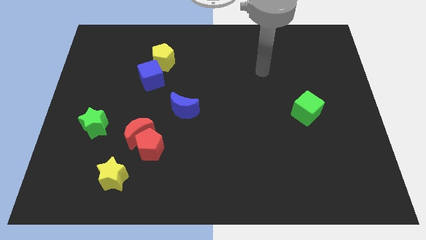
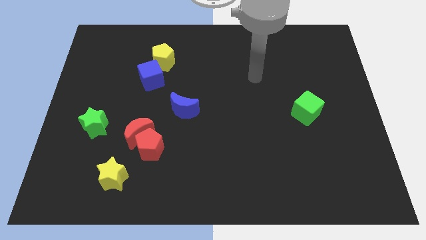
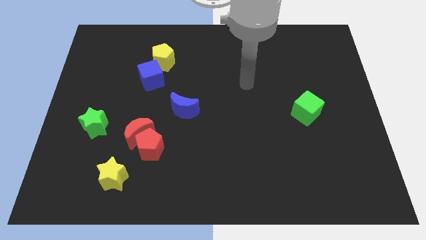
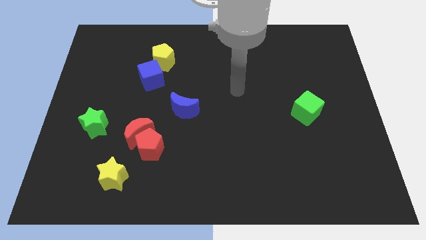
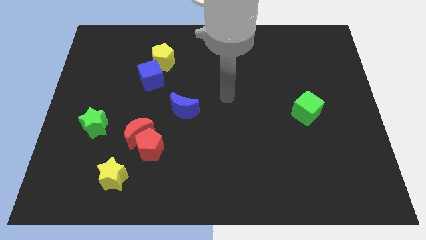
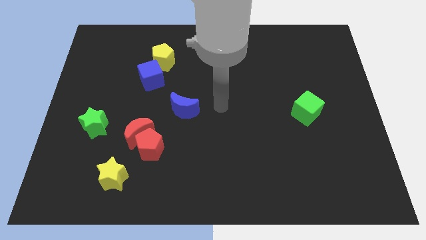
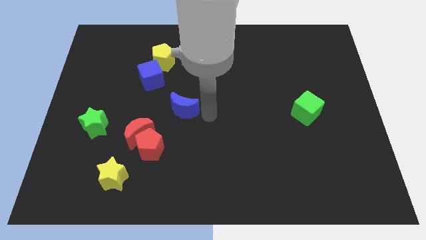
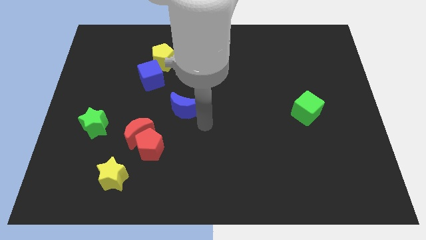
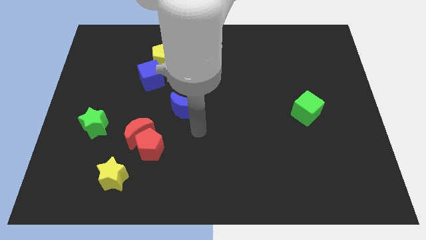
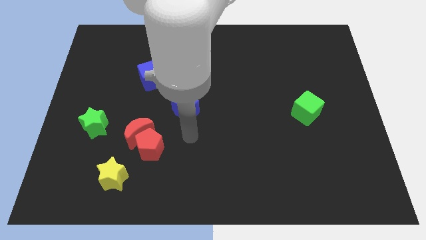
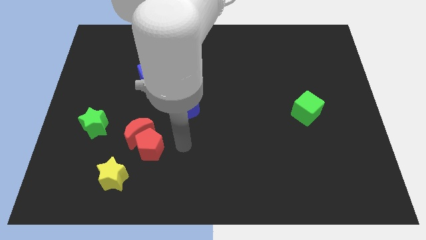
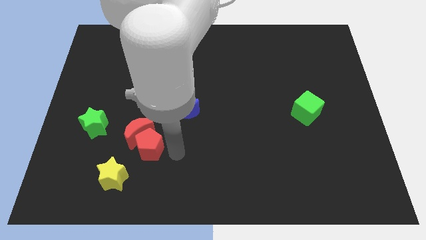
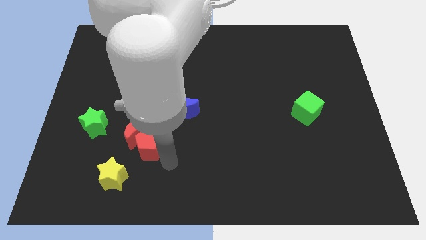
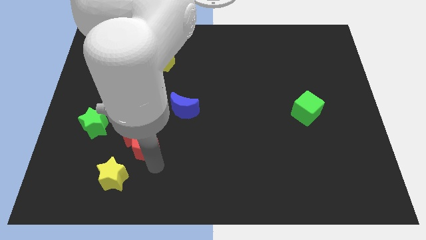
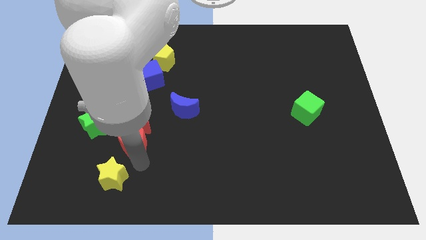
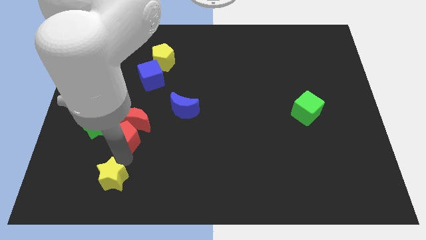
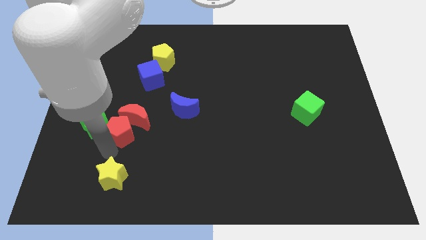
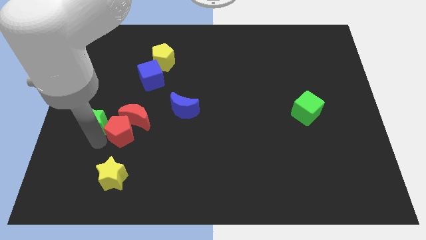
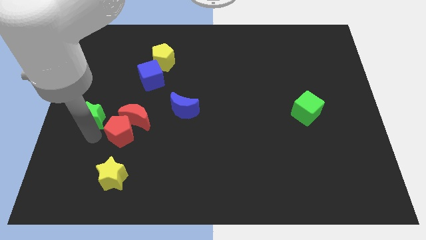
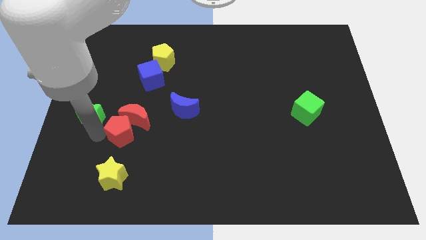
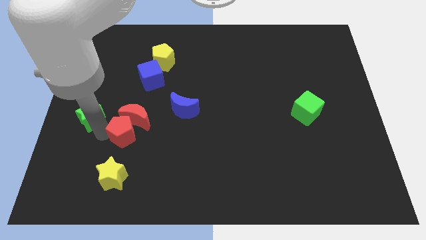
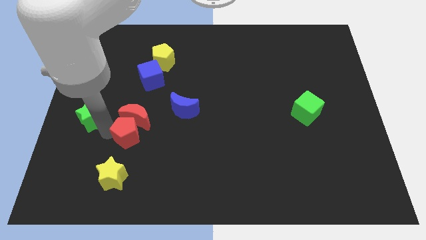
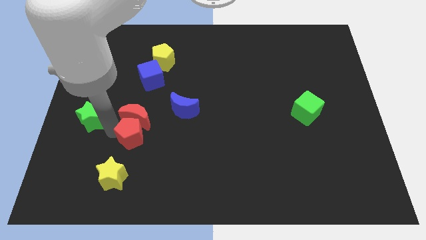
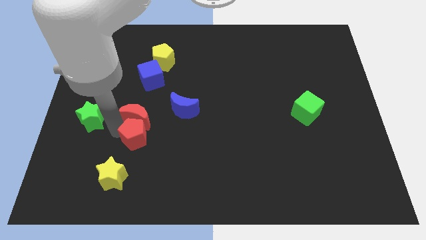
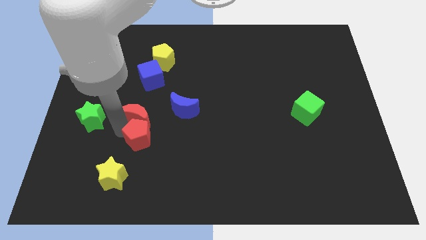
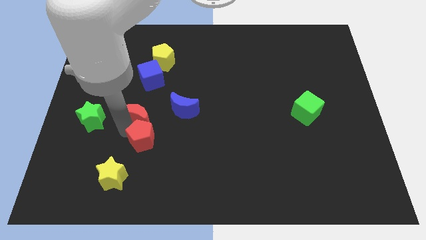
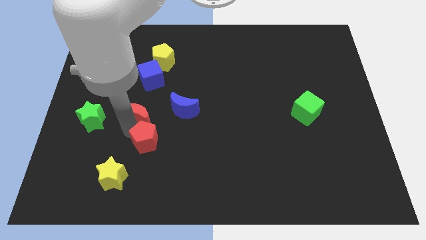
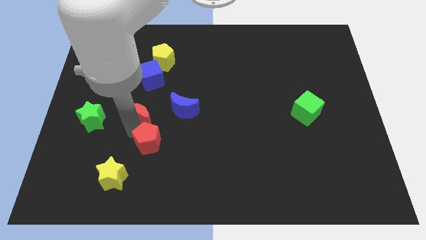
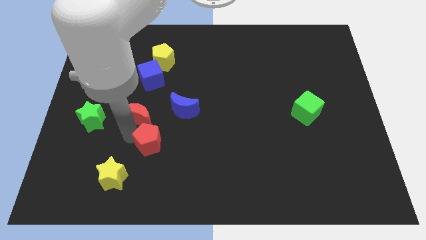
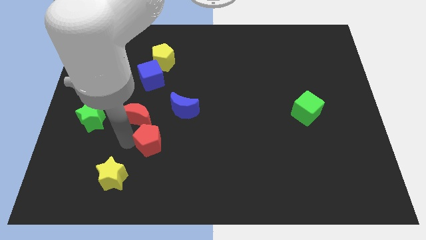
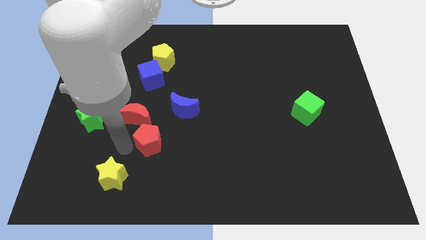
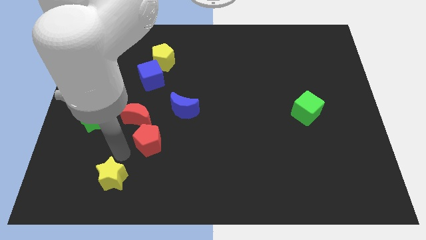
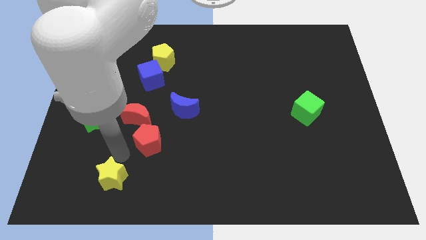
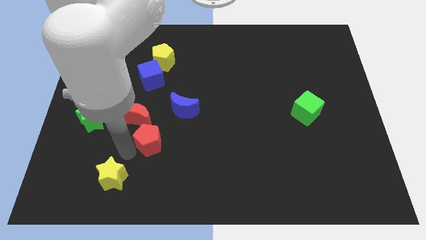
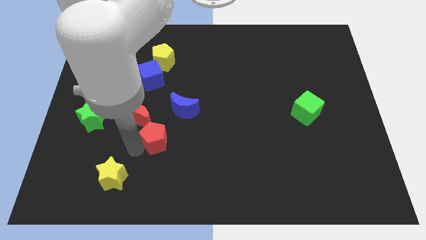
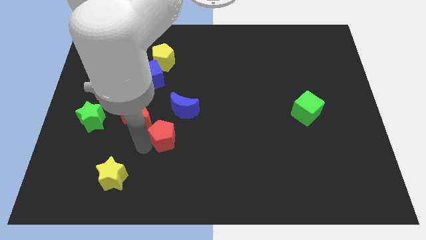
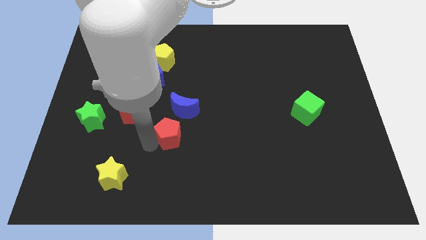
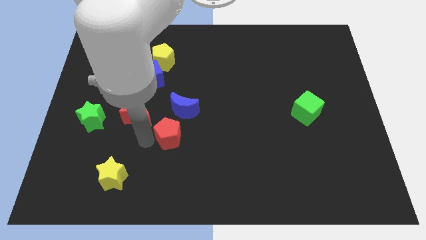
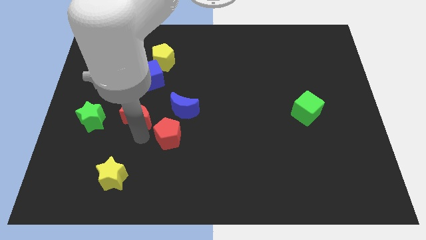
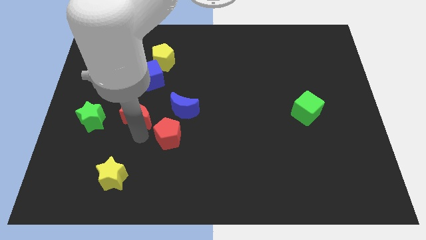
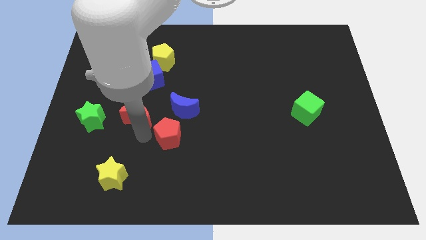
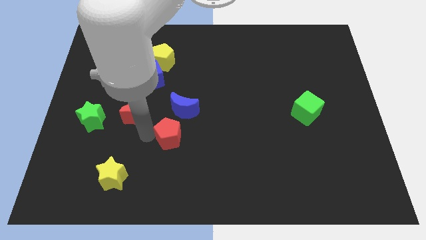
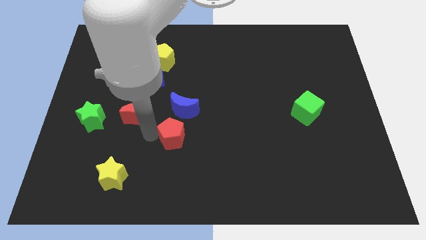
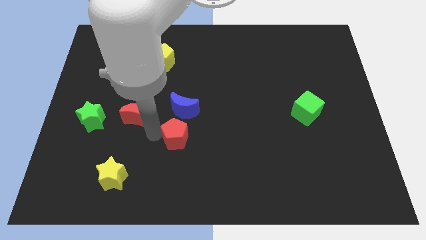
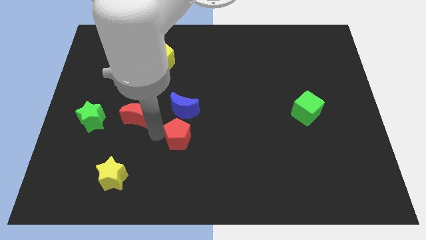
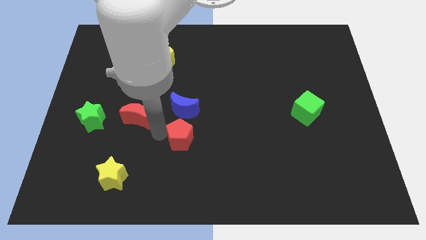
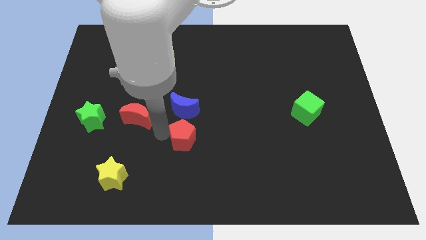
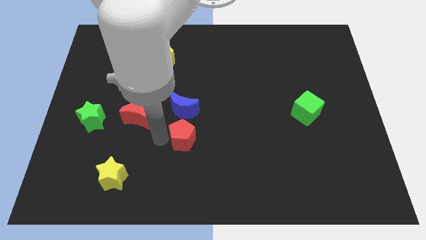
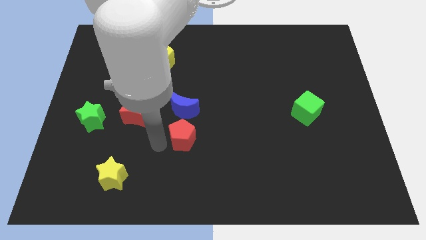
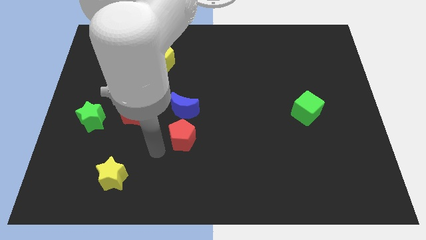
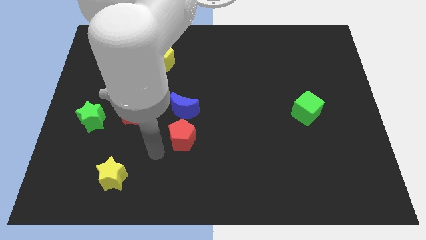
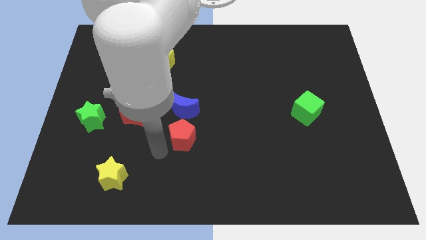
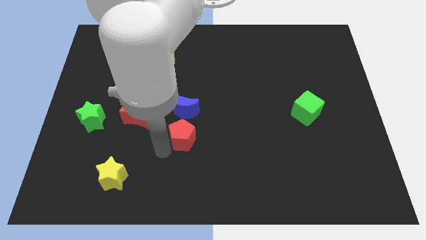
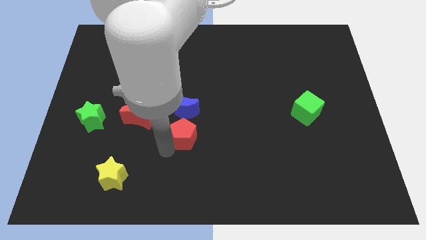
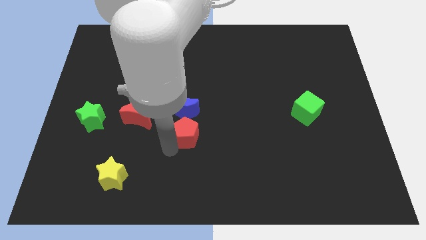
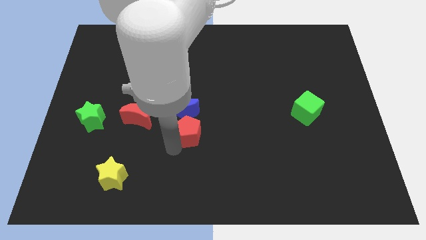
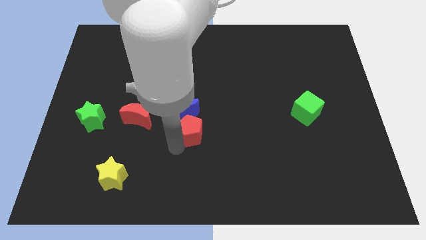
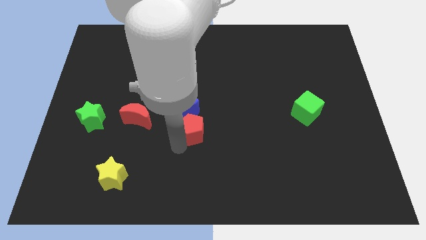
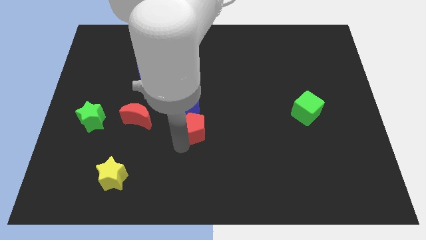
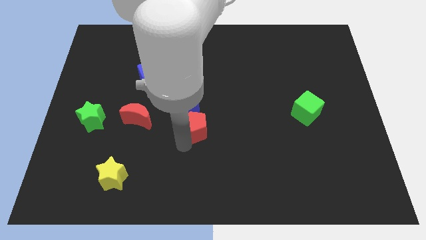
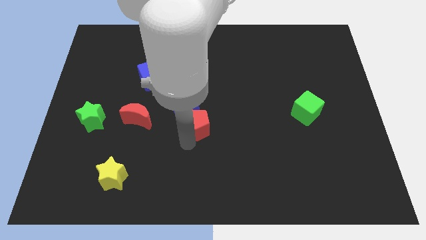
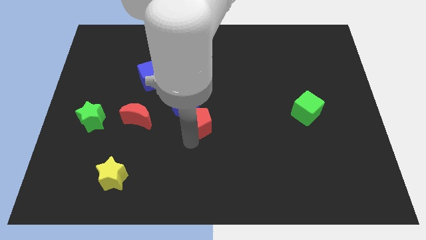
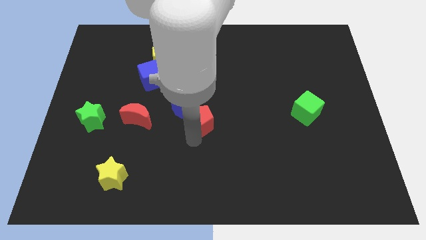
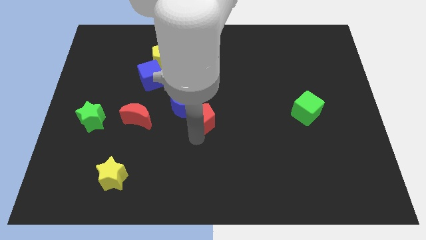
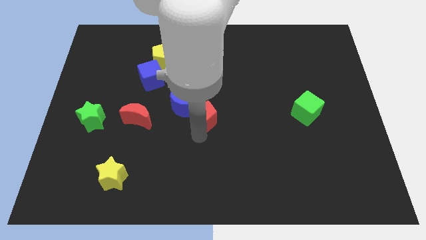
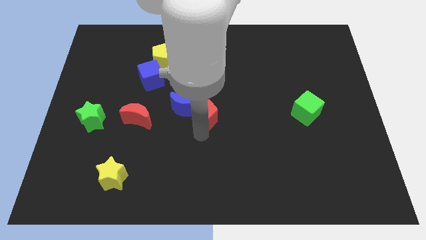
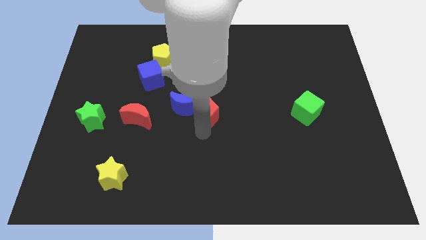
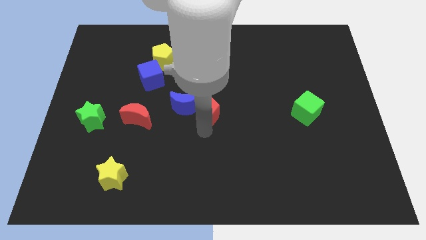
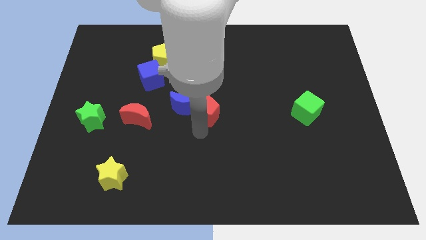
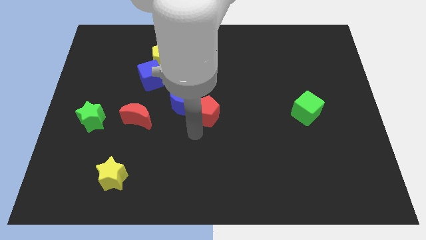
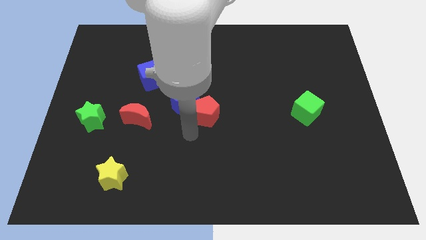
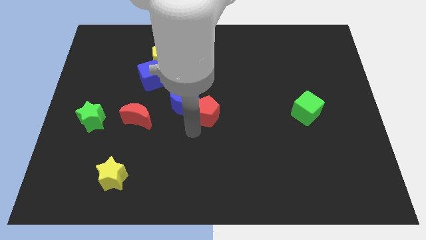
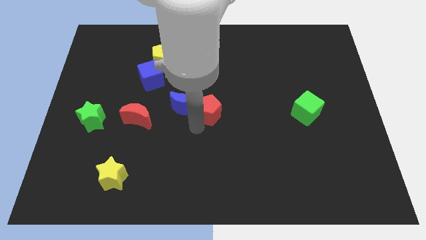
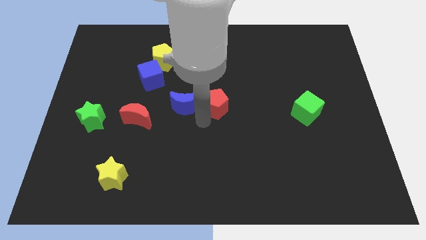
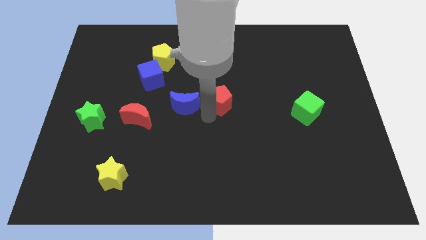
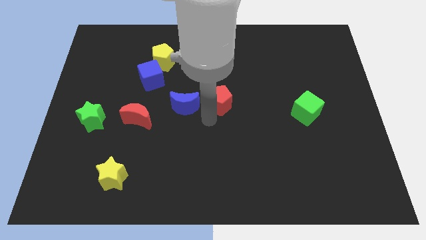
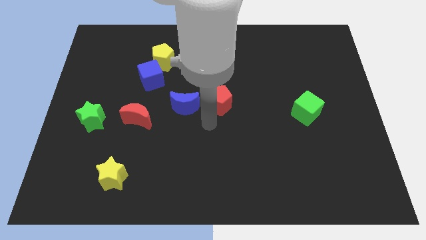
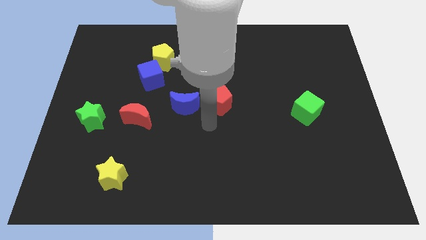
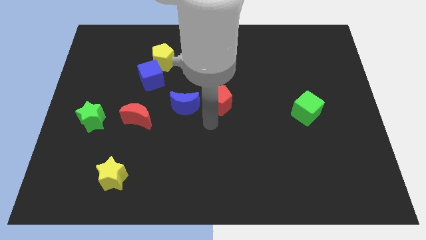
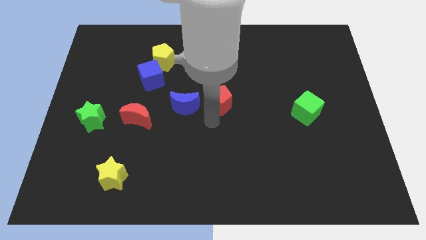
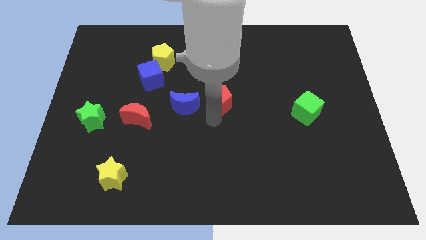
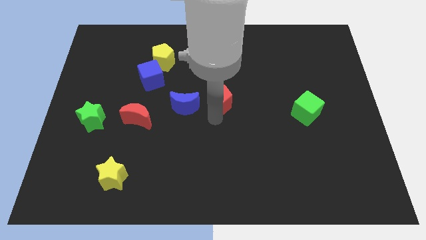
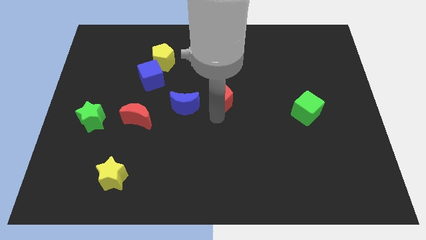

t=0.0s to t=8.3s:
push the red pentagon diagonally upwards and to the right
